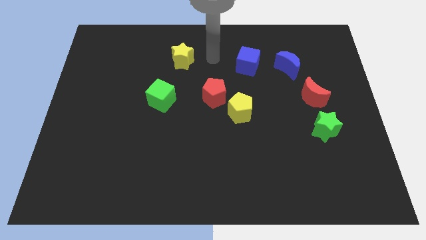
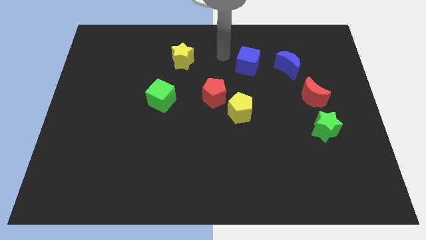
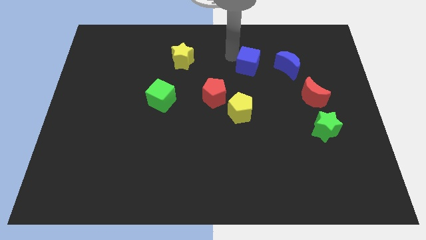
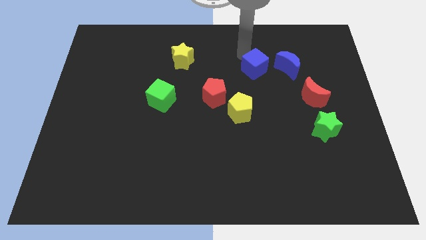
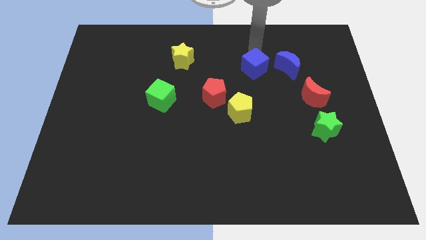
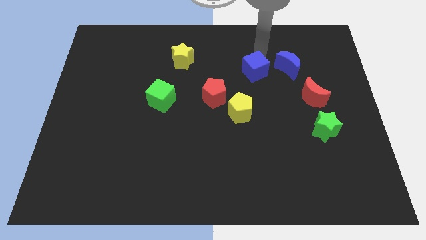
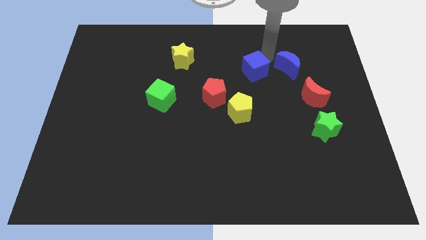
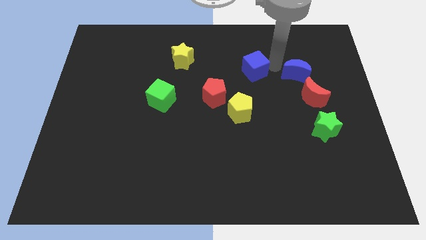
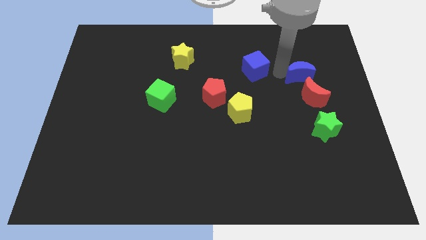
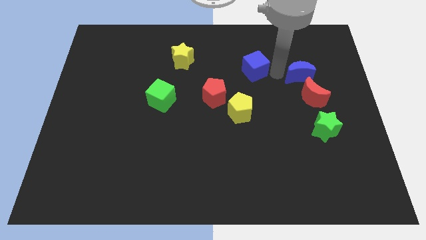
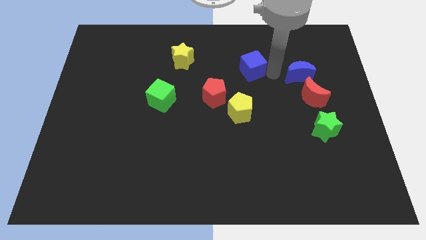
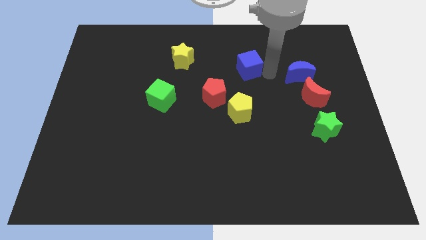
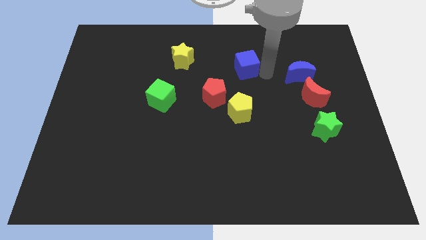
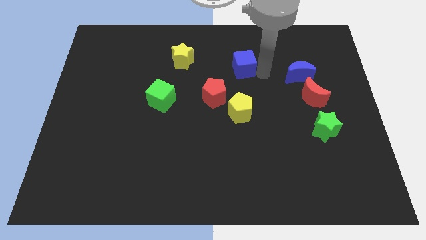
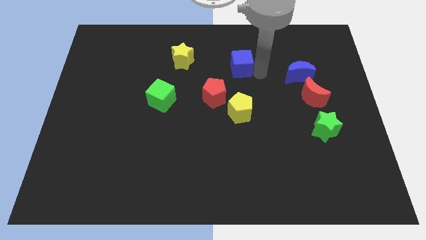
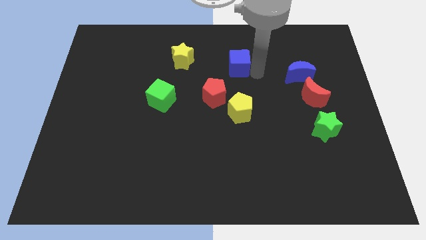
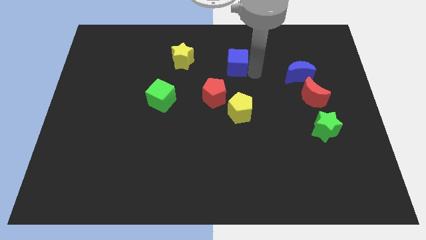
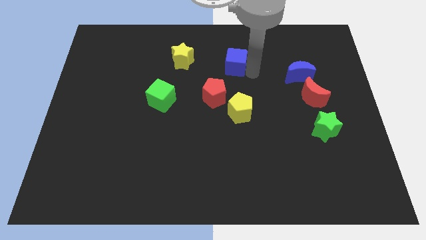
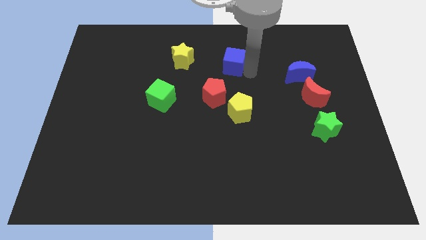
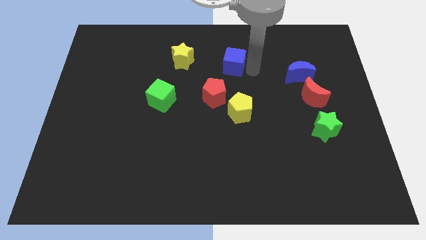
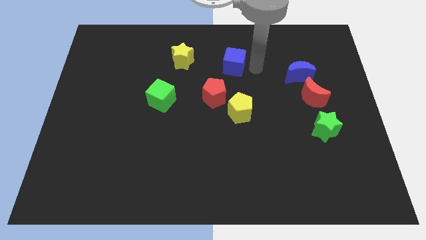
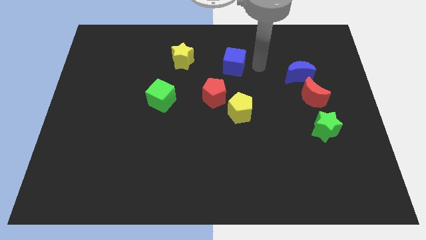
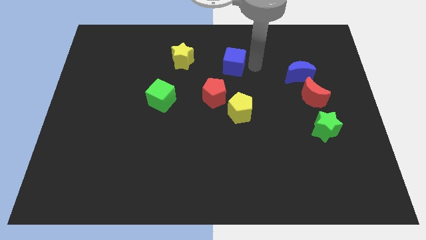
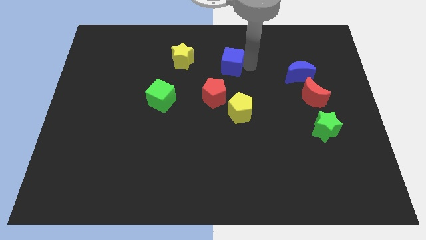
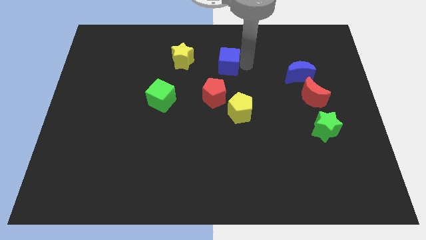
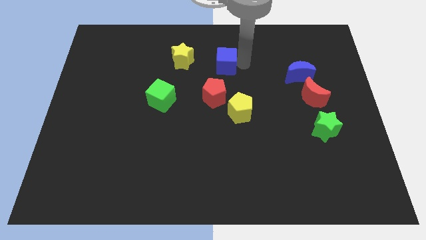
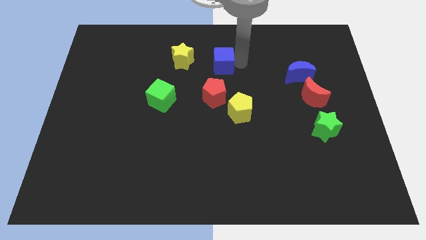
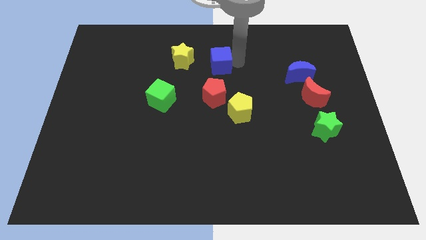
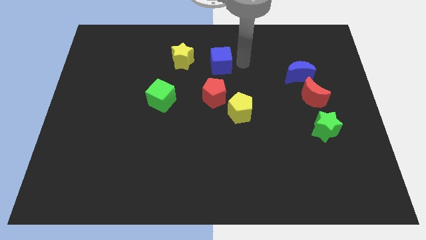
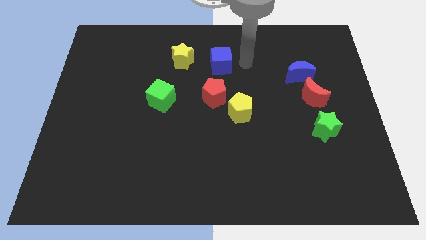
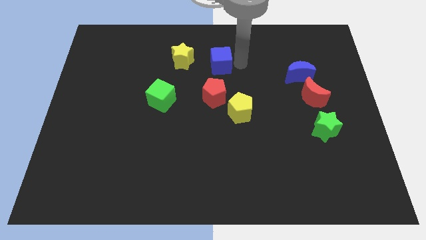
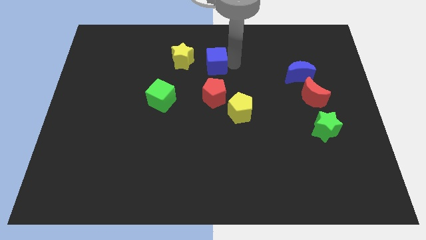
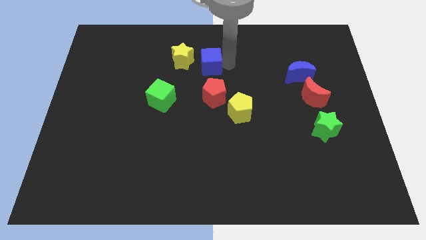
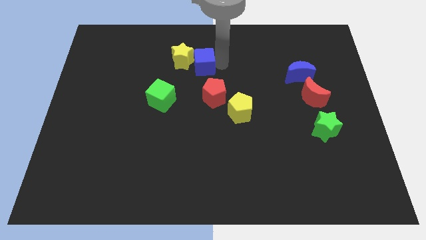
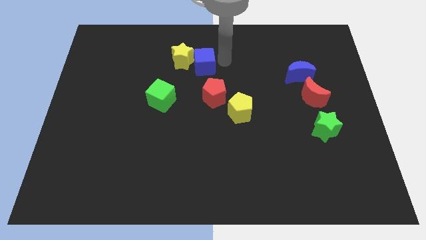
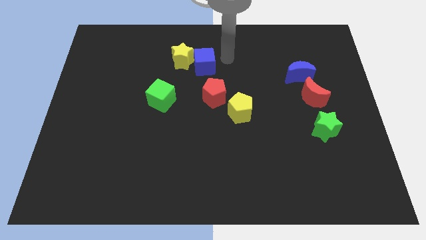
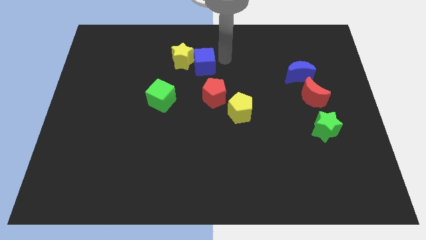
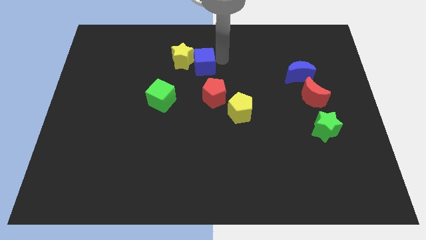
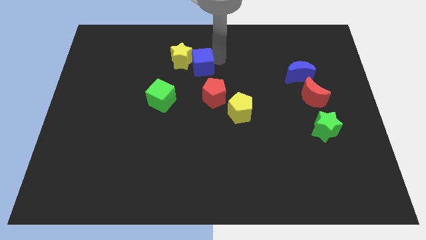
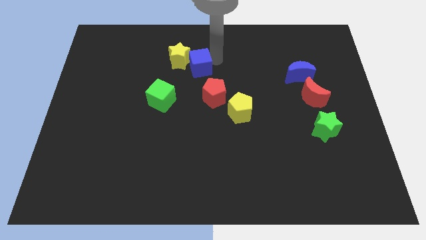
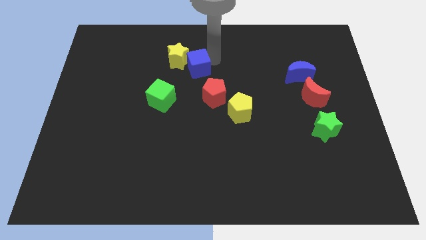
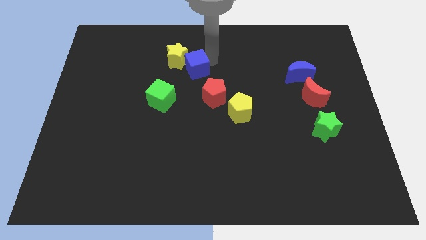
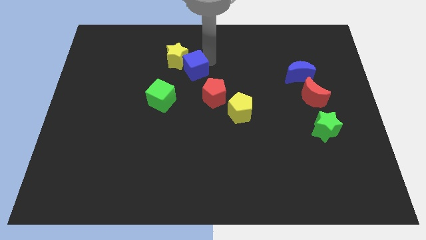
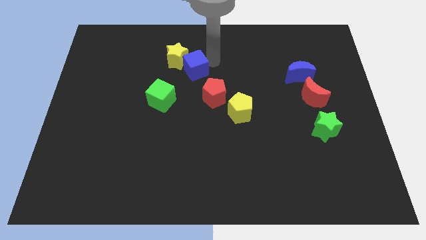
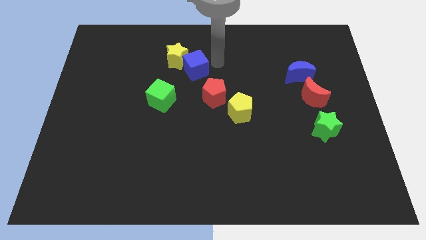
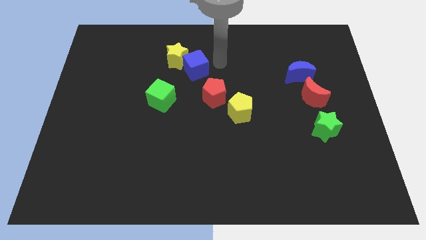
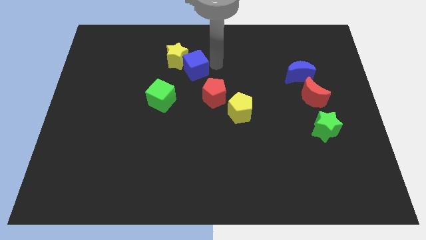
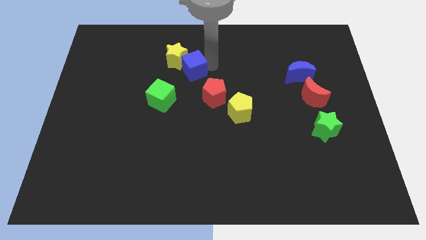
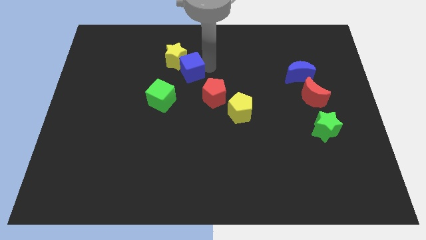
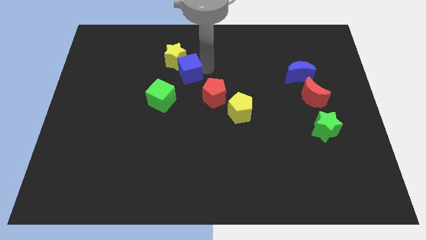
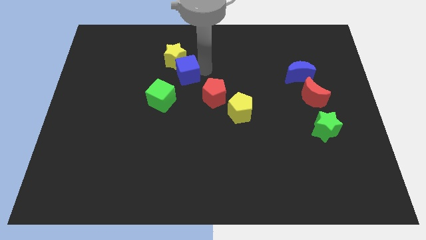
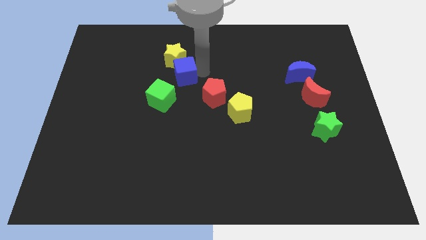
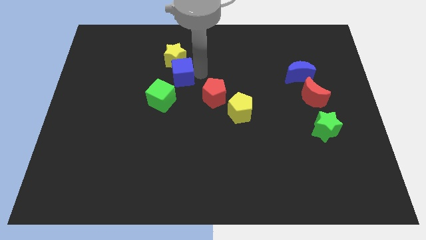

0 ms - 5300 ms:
slide the blue cube to the top side of the green cube

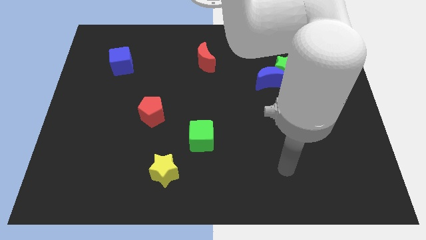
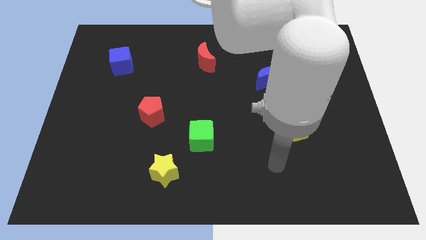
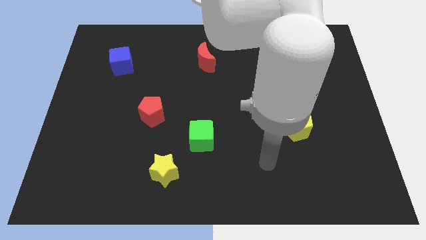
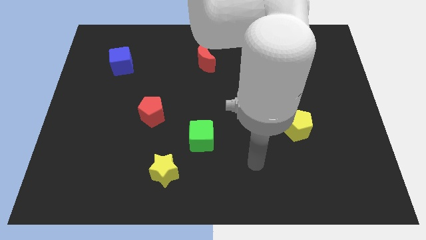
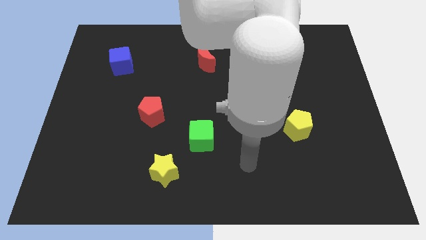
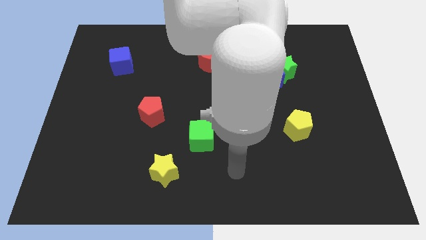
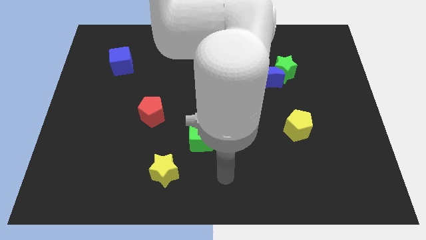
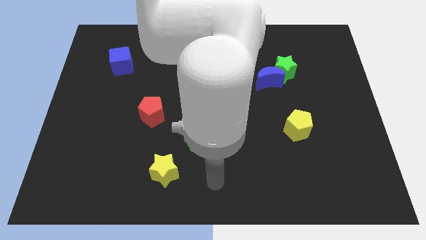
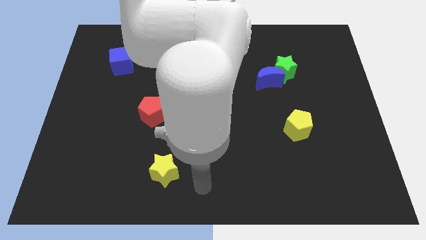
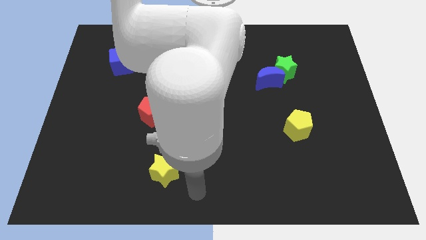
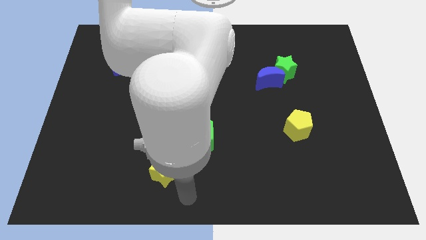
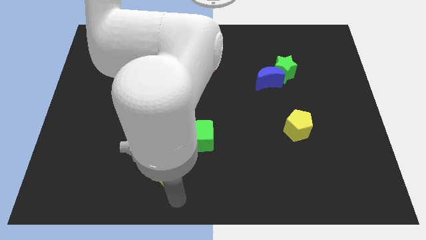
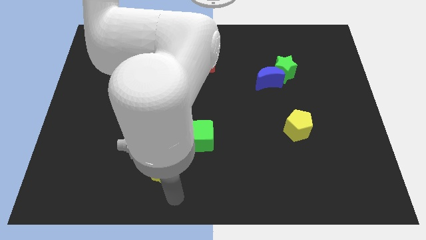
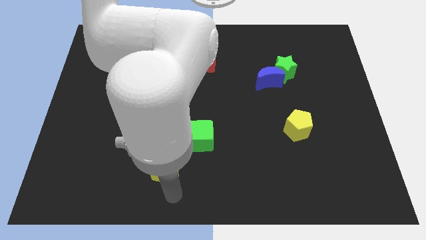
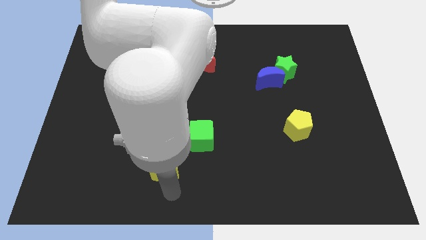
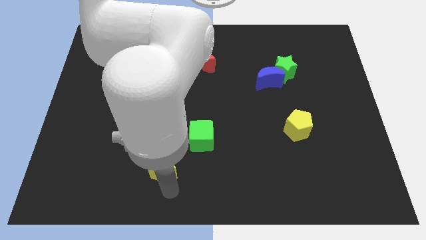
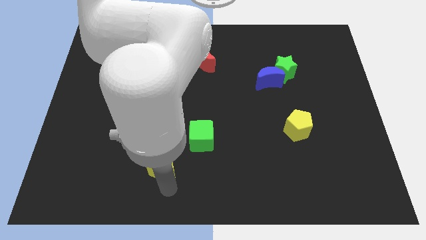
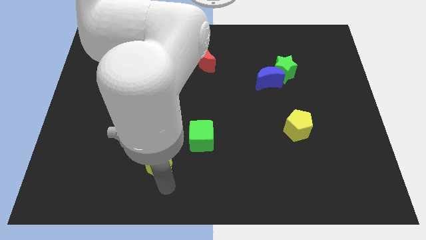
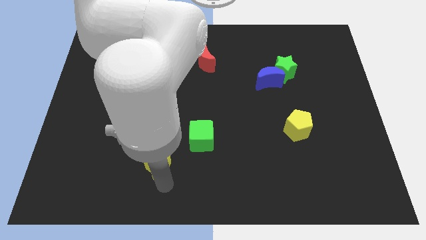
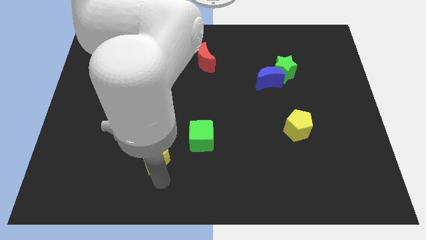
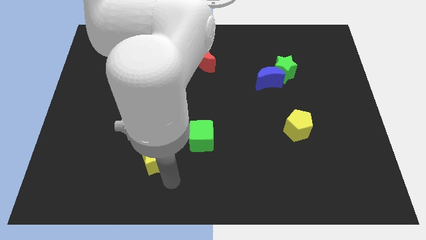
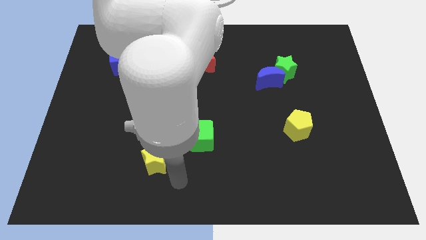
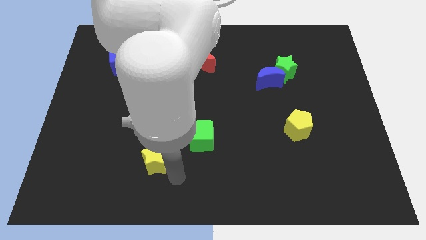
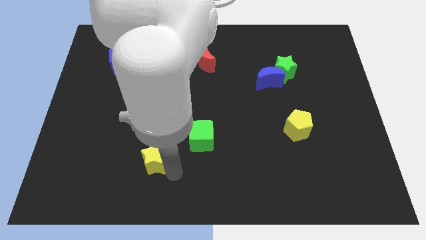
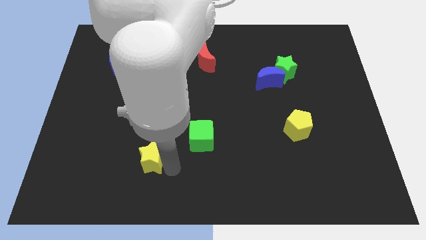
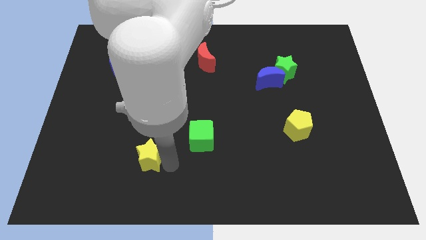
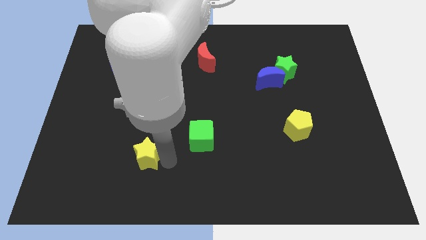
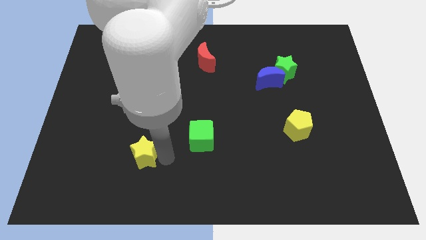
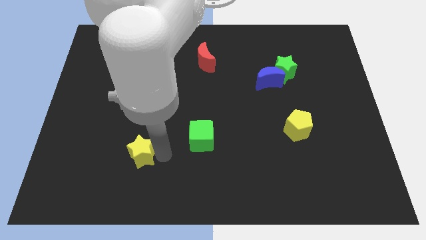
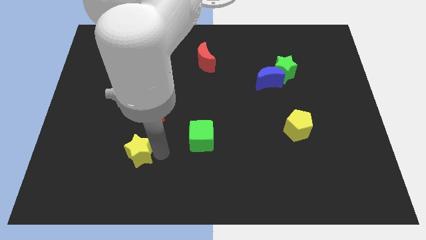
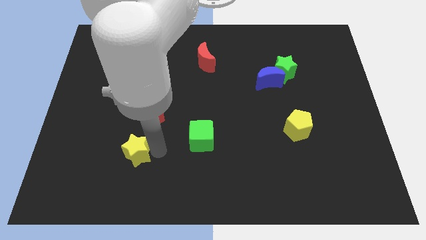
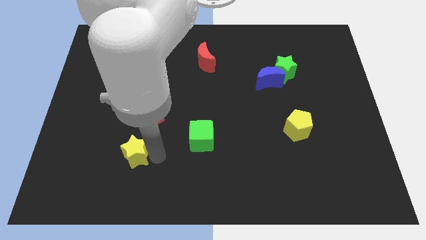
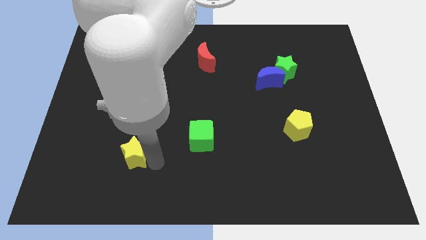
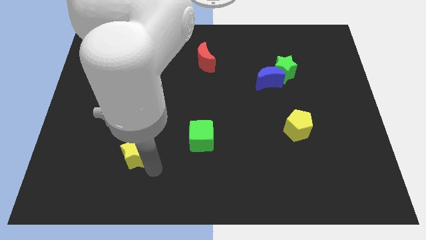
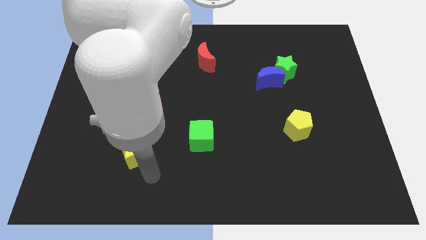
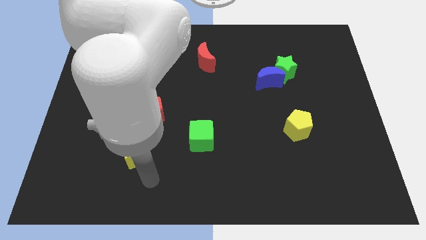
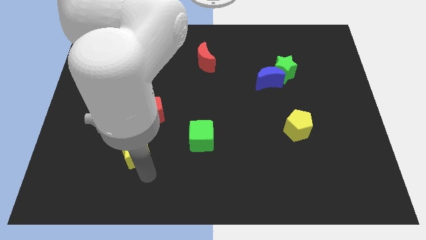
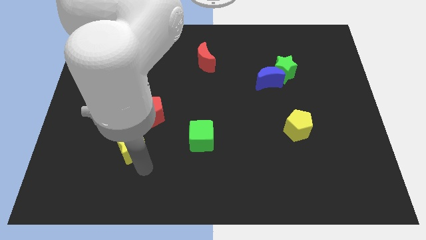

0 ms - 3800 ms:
move the yellow star to the bottom left of the red pentagon
